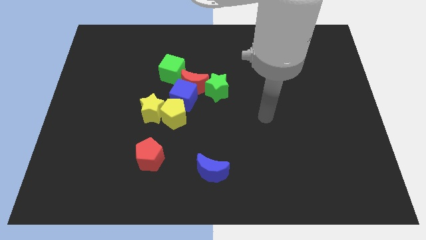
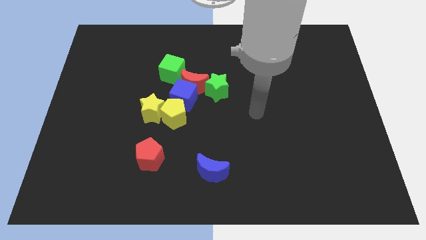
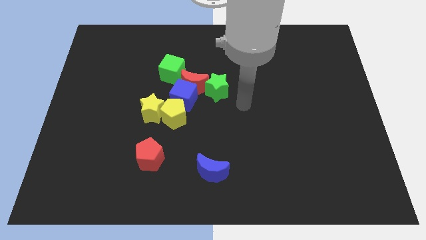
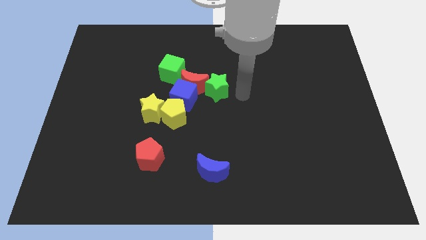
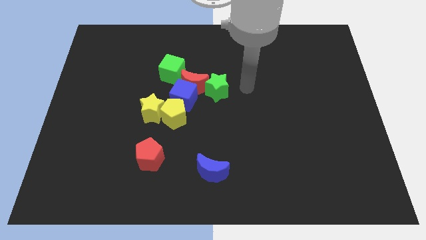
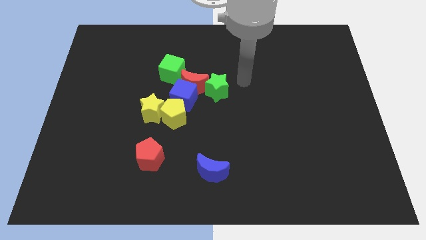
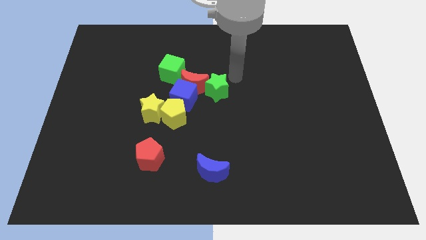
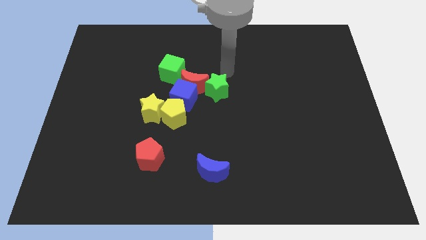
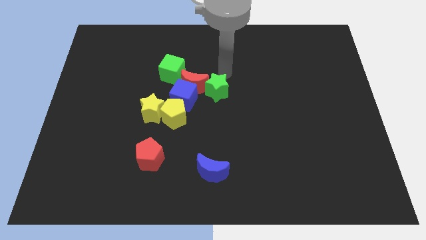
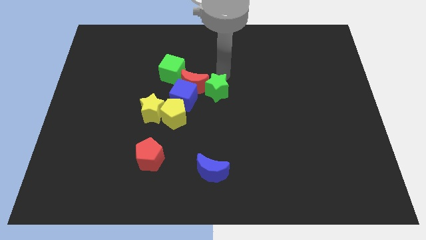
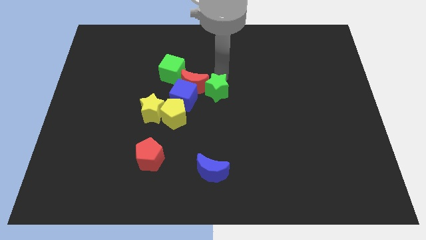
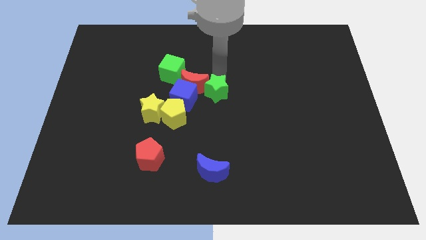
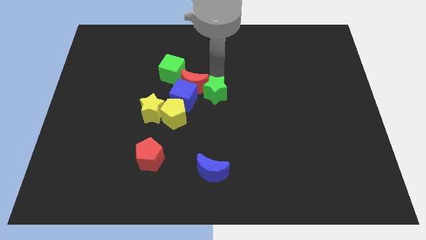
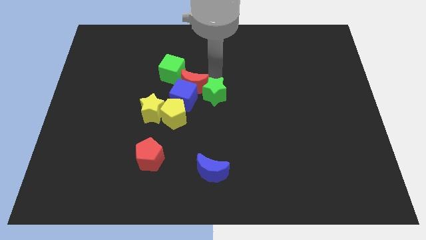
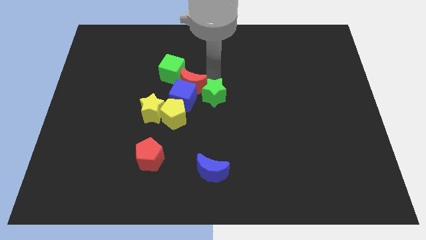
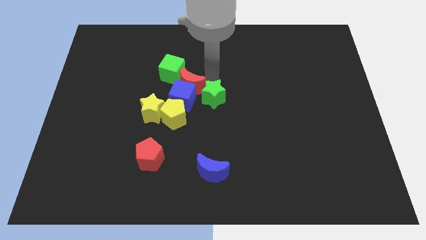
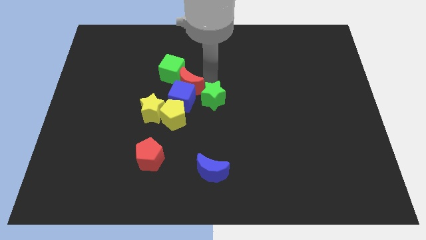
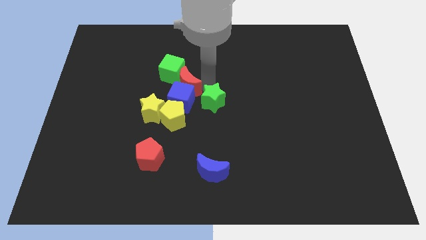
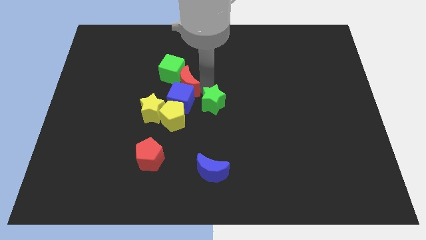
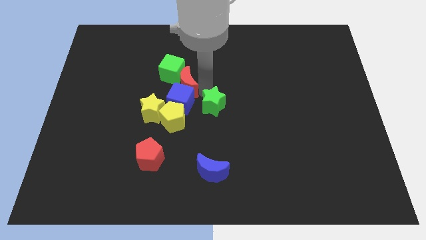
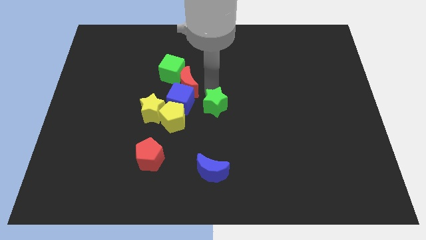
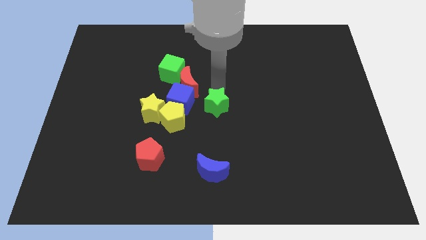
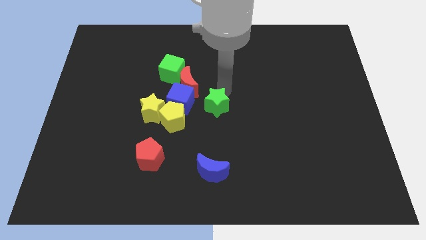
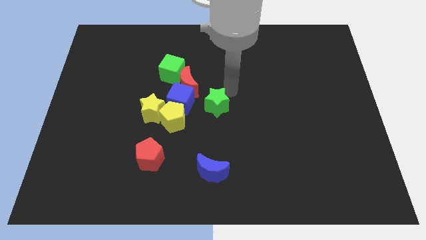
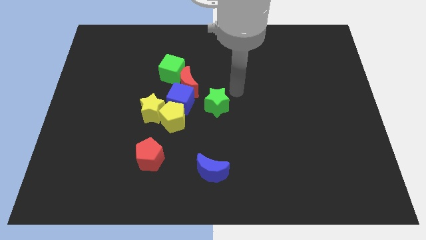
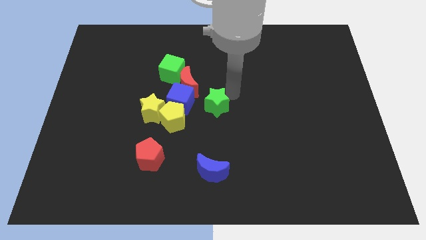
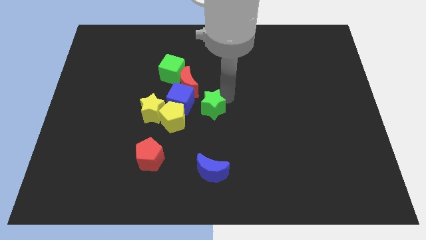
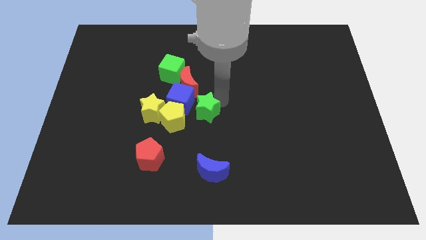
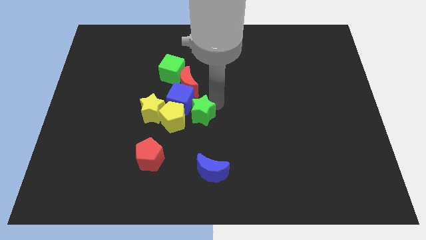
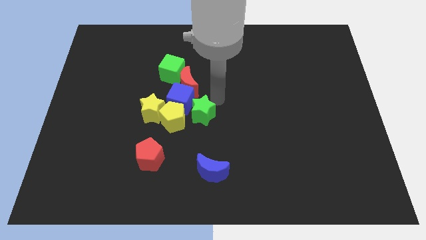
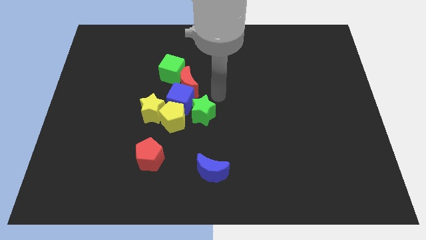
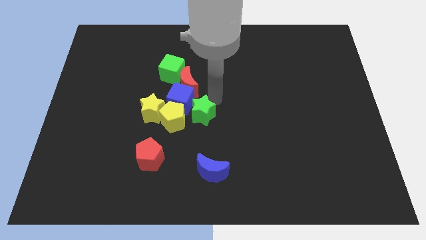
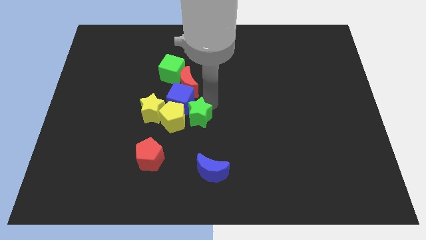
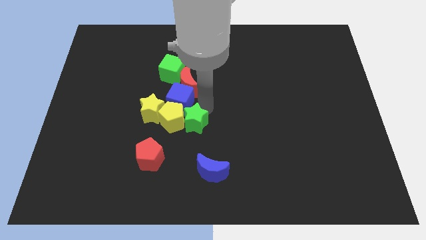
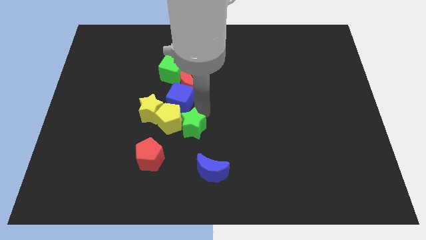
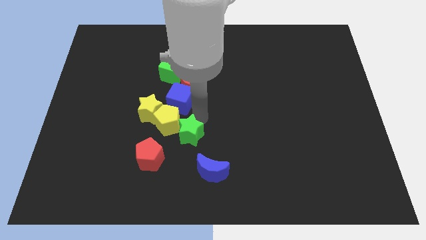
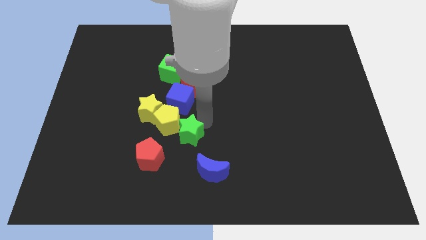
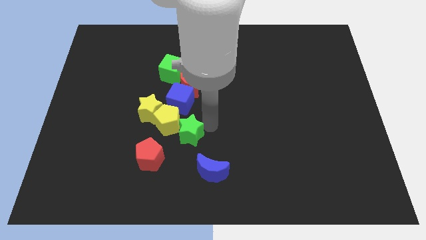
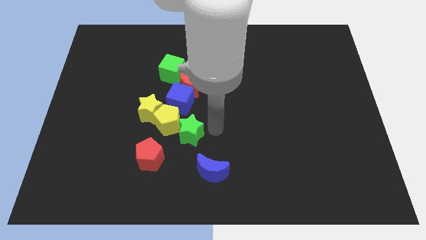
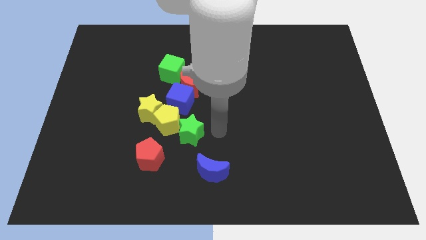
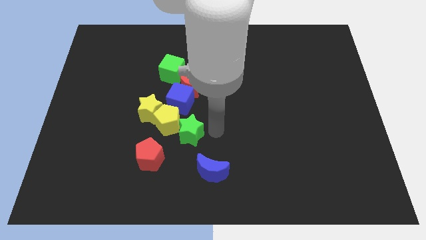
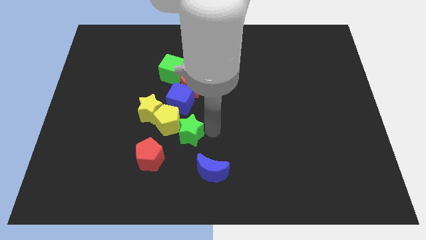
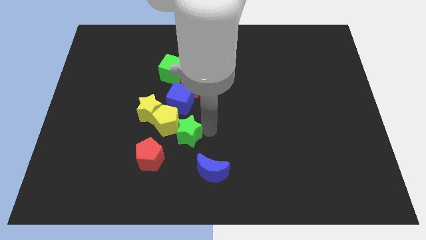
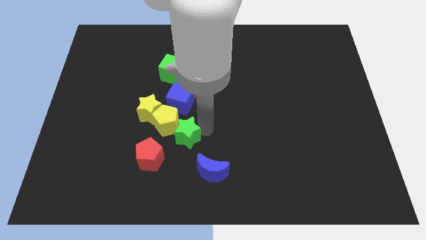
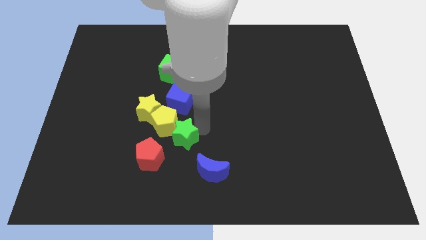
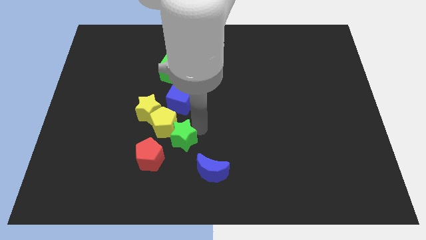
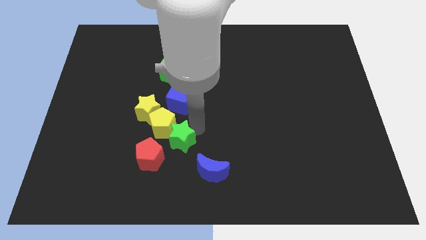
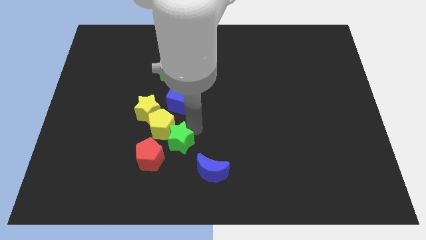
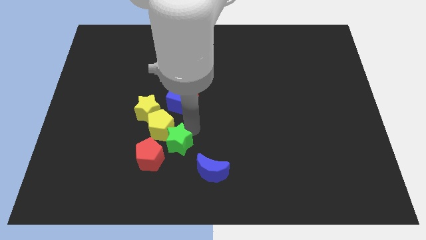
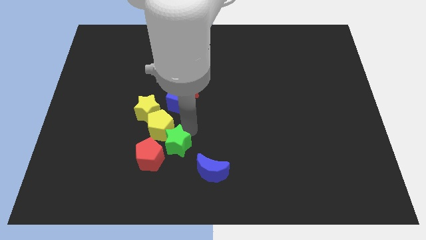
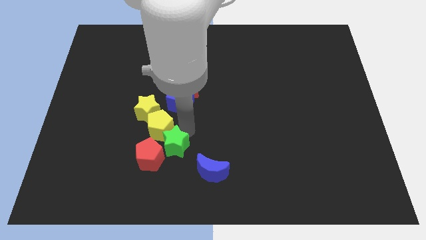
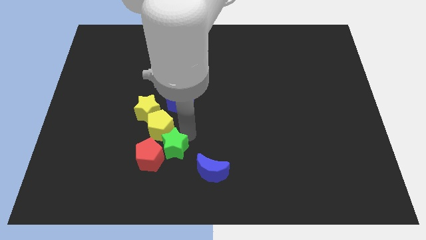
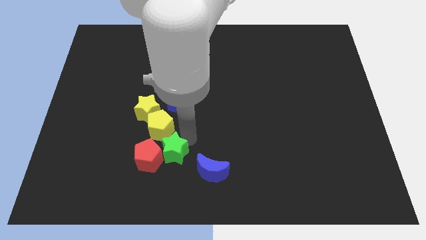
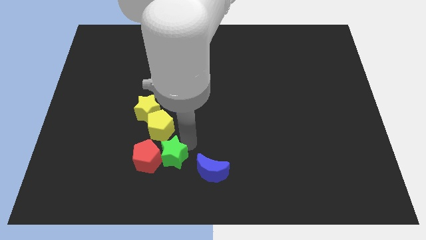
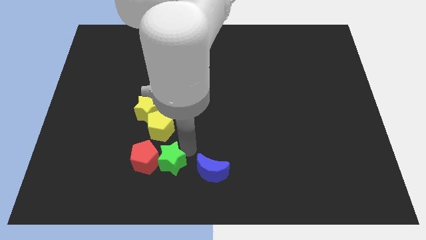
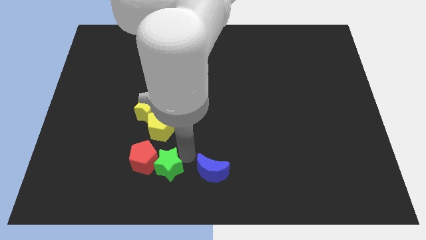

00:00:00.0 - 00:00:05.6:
push the green star downwards and left diagonally

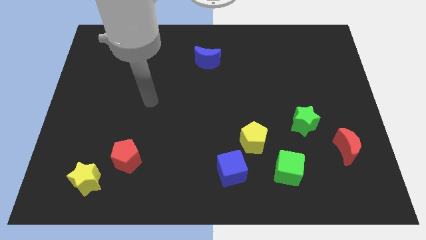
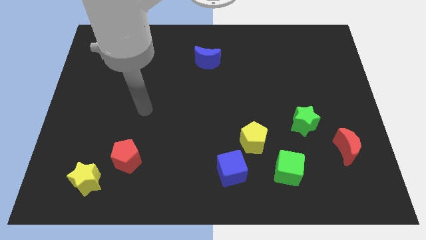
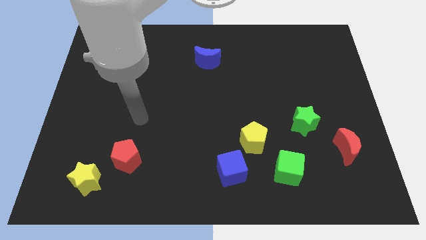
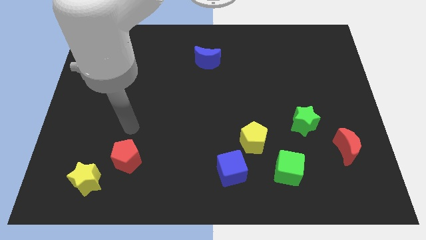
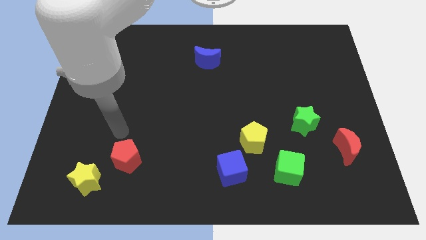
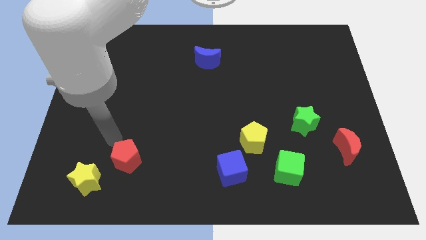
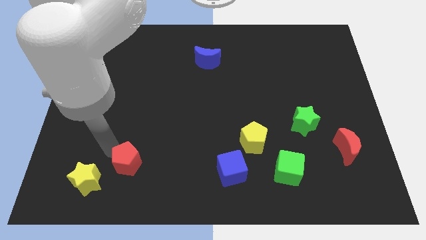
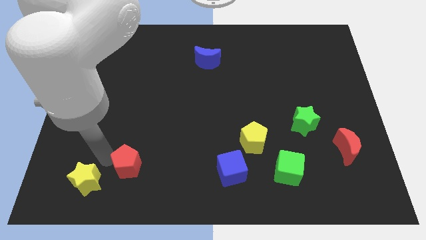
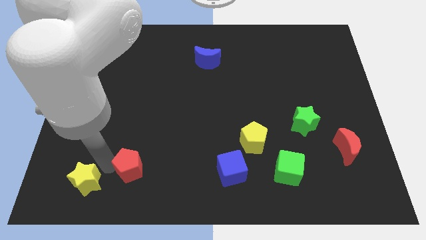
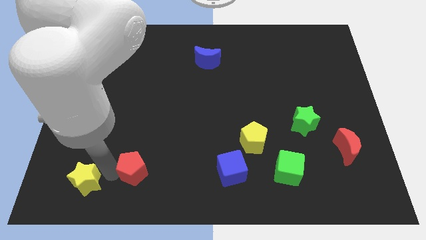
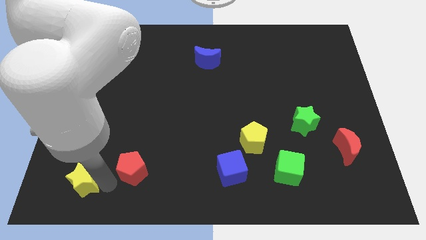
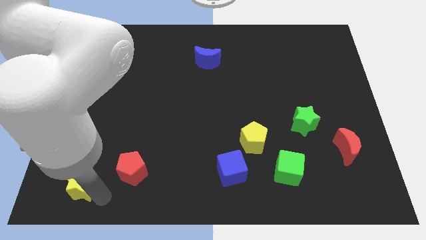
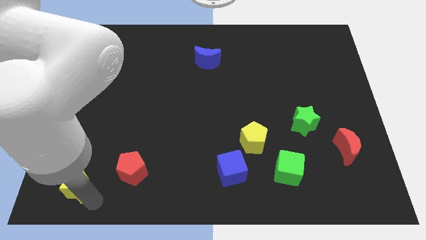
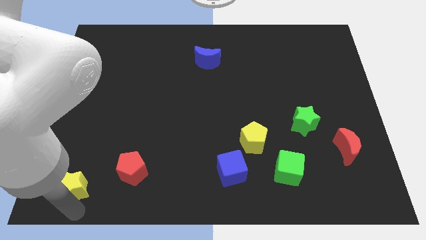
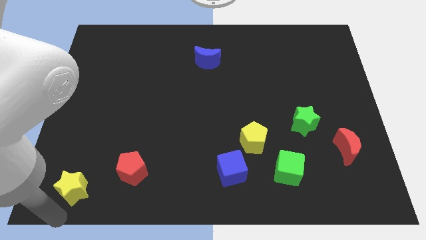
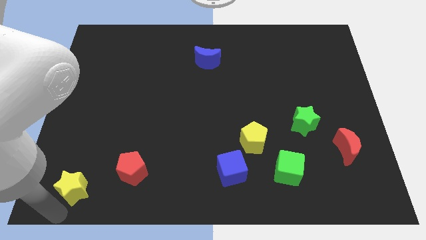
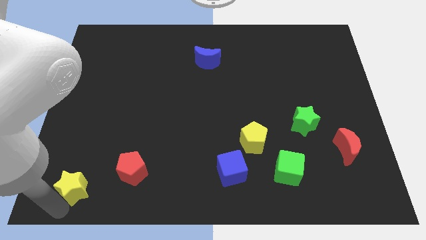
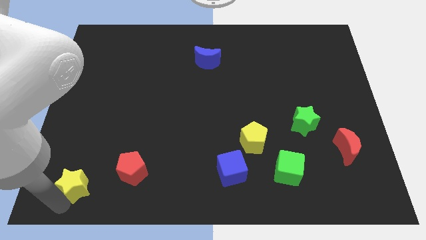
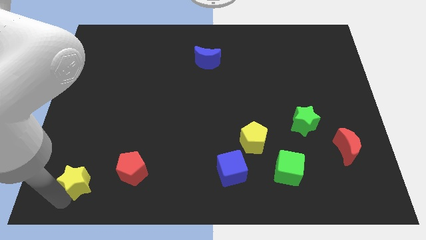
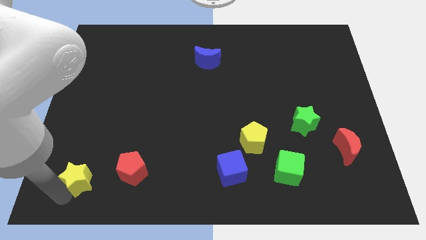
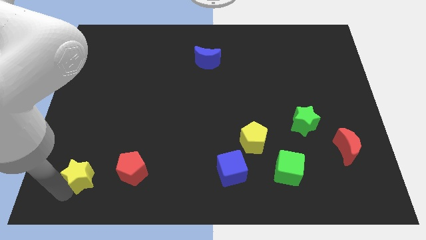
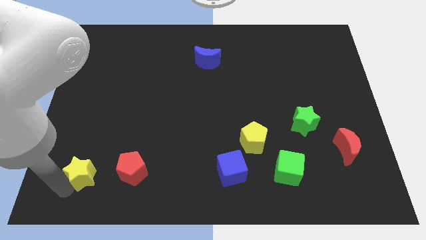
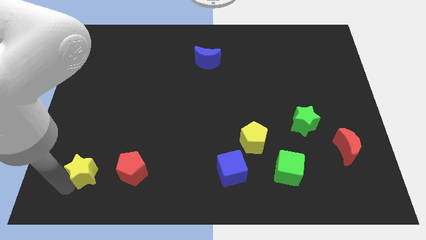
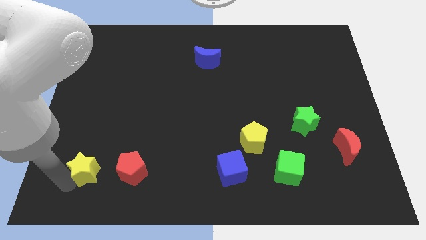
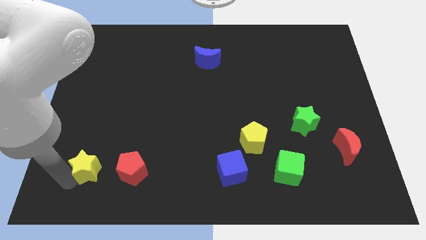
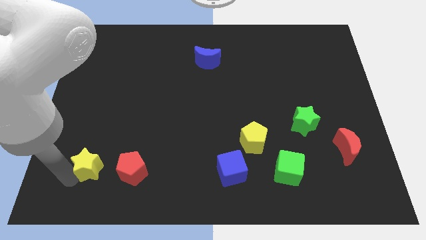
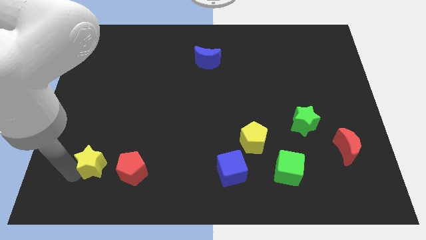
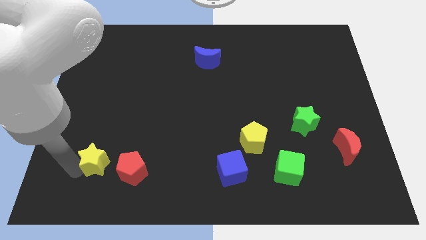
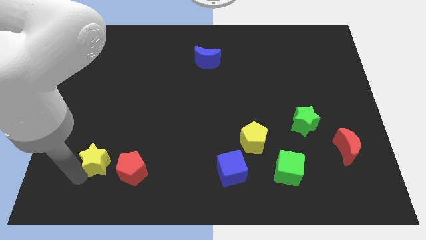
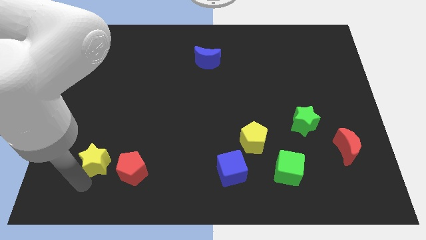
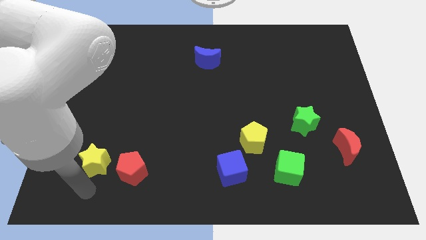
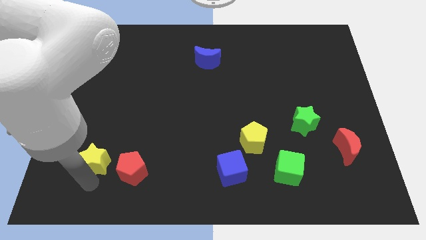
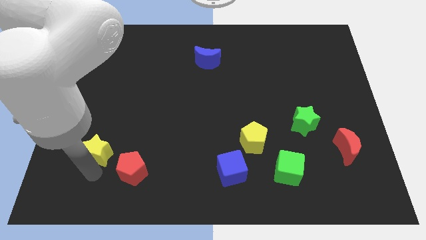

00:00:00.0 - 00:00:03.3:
move the yellow star upwards a little
